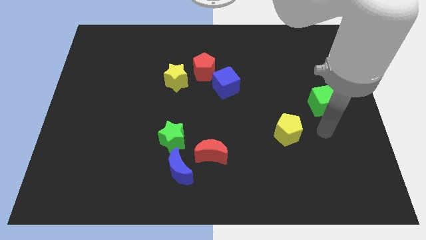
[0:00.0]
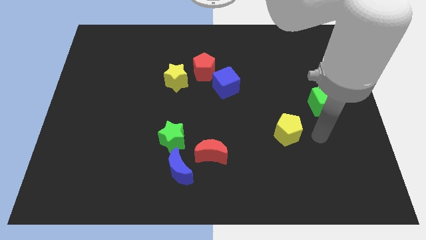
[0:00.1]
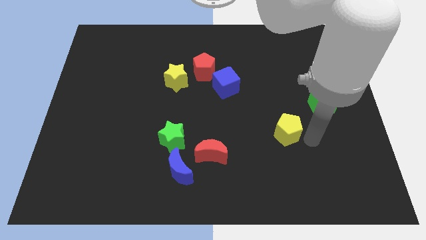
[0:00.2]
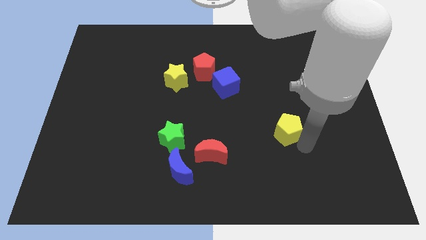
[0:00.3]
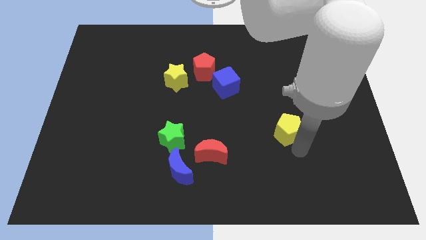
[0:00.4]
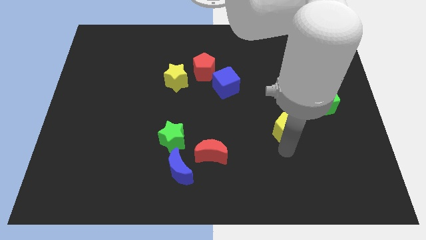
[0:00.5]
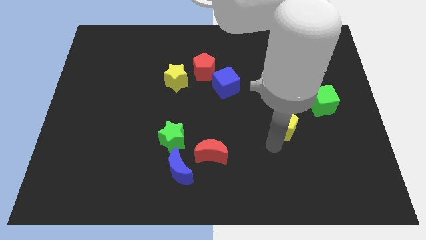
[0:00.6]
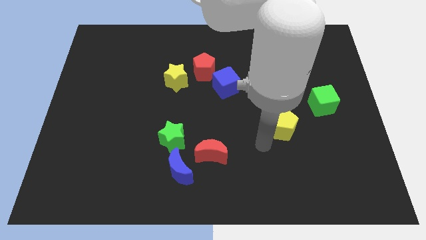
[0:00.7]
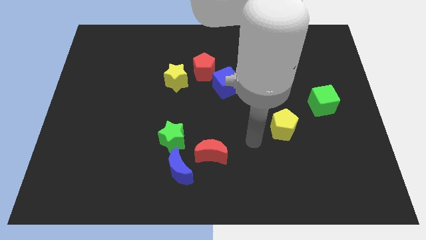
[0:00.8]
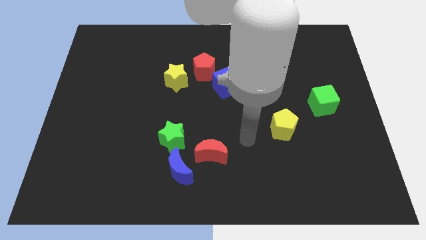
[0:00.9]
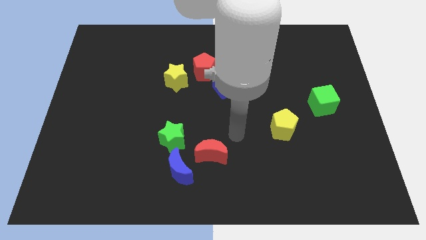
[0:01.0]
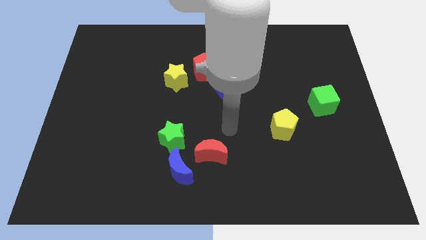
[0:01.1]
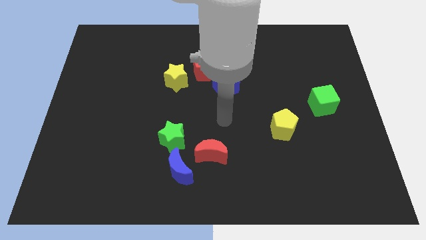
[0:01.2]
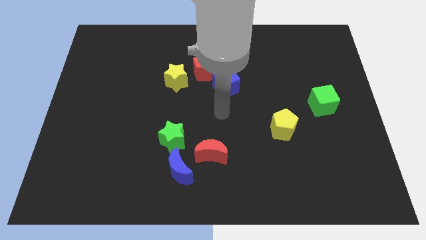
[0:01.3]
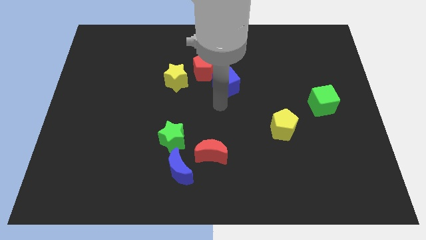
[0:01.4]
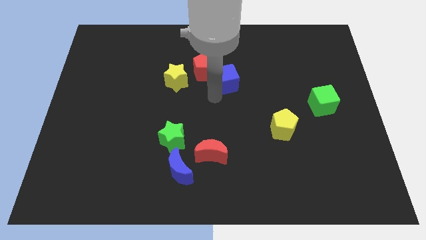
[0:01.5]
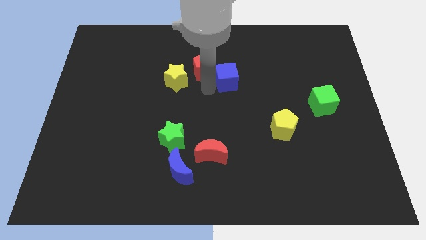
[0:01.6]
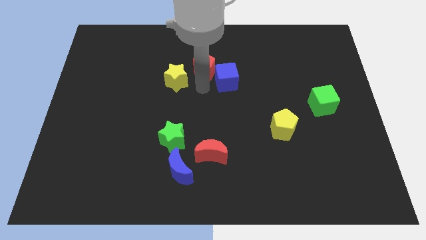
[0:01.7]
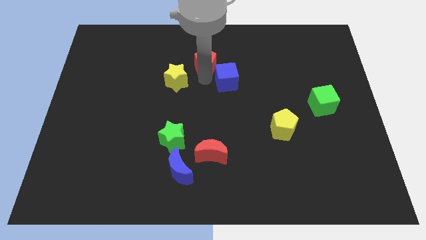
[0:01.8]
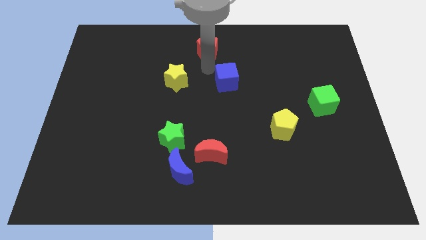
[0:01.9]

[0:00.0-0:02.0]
move the blue cube away from the red pentagon

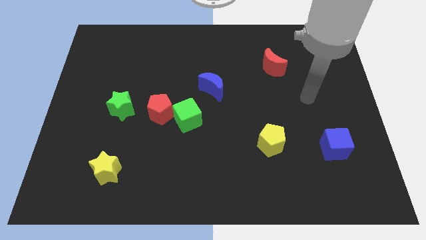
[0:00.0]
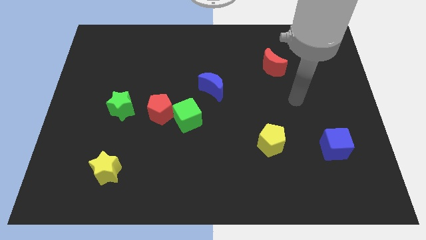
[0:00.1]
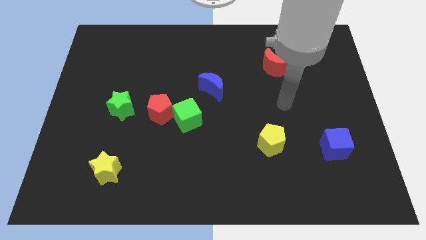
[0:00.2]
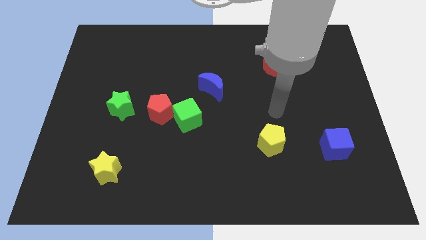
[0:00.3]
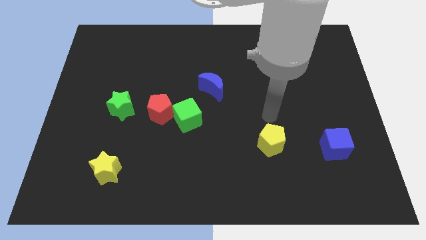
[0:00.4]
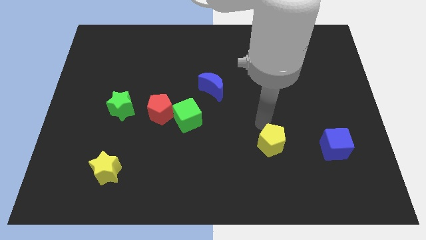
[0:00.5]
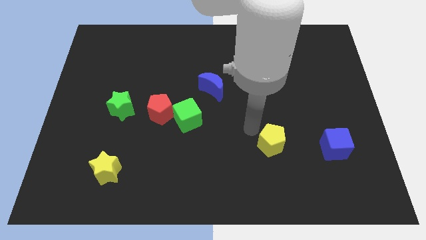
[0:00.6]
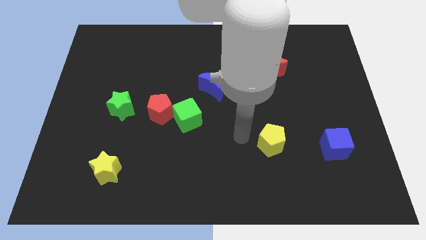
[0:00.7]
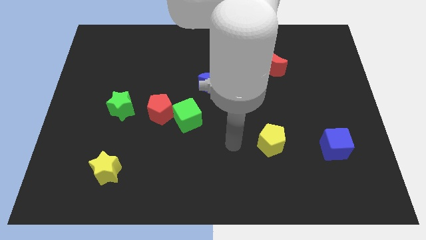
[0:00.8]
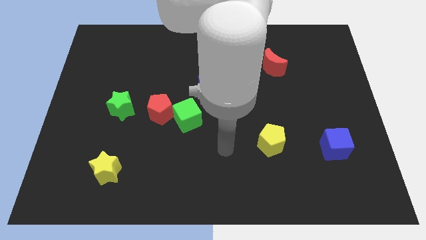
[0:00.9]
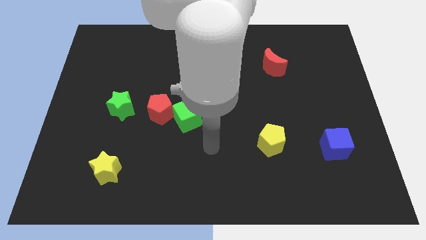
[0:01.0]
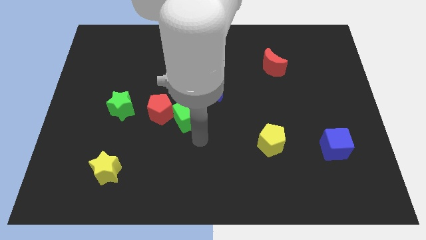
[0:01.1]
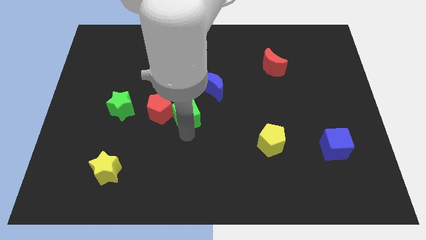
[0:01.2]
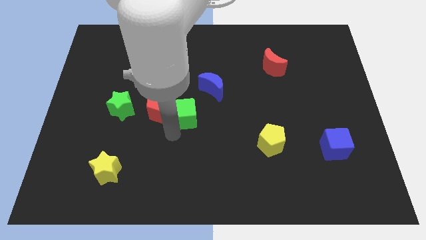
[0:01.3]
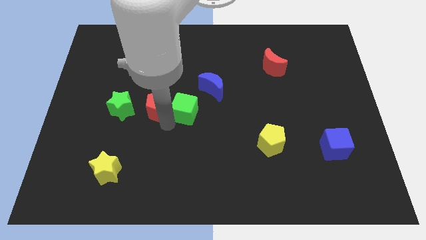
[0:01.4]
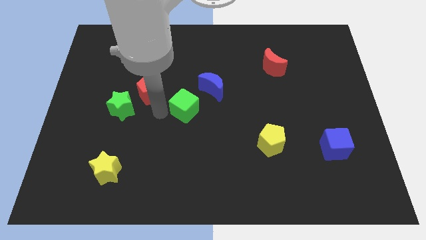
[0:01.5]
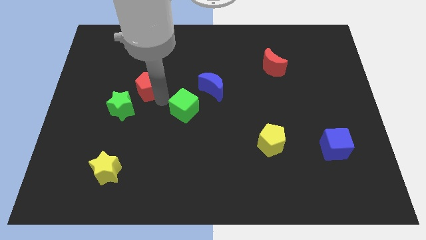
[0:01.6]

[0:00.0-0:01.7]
move the green cube away from the red pentagon

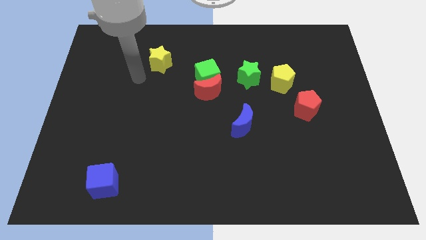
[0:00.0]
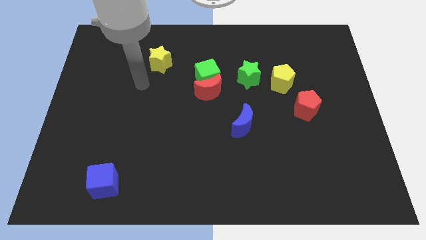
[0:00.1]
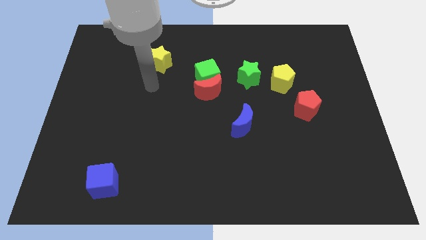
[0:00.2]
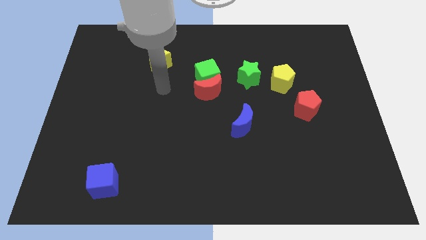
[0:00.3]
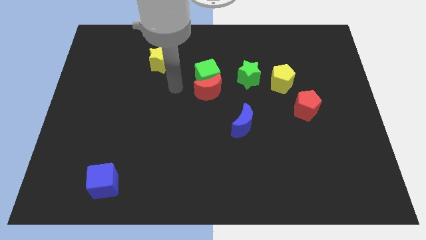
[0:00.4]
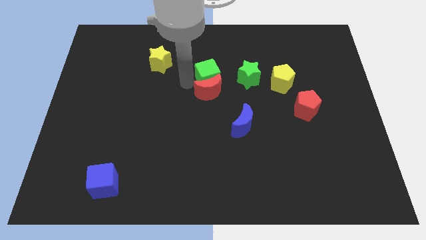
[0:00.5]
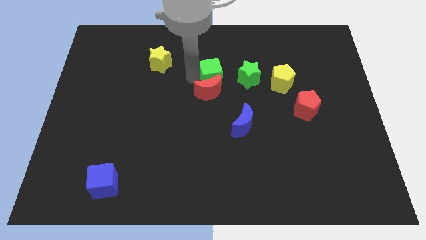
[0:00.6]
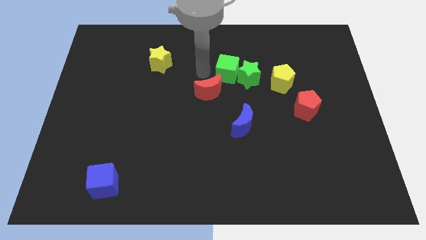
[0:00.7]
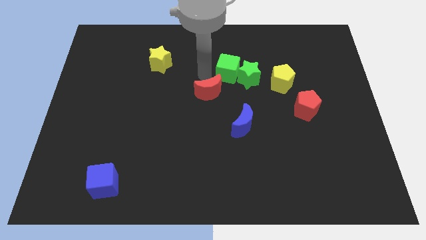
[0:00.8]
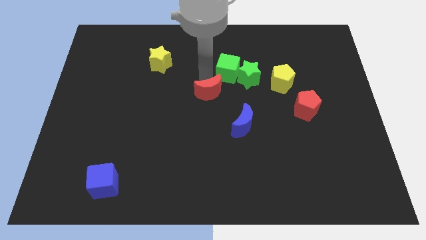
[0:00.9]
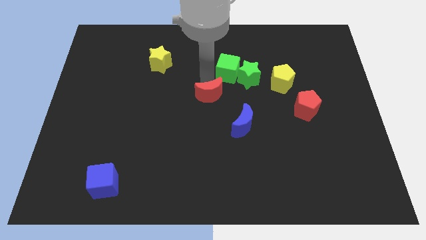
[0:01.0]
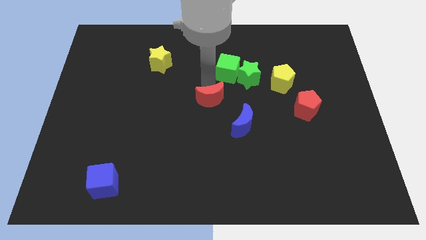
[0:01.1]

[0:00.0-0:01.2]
move the red moon away from the green cube

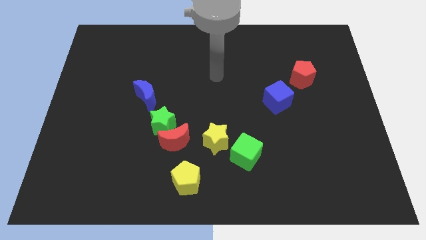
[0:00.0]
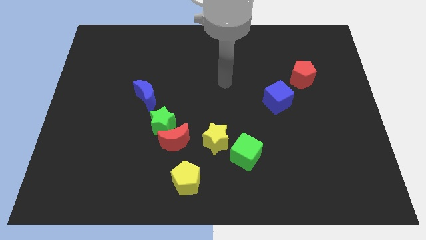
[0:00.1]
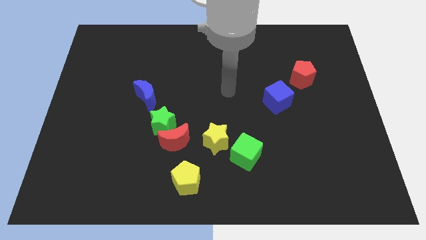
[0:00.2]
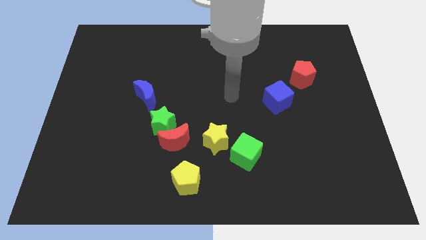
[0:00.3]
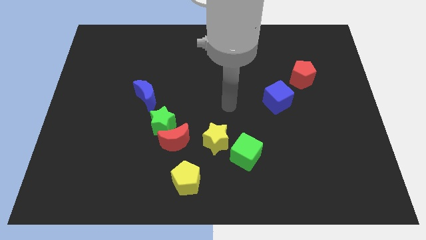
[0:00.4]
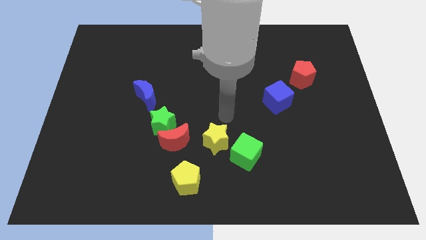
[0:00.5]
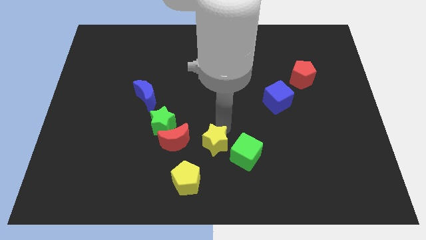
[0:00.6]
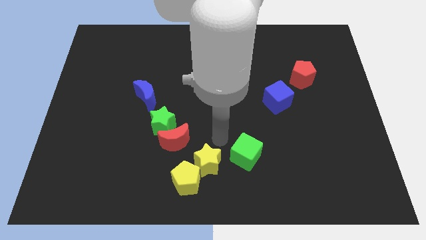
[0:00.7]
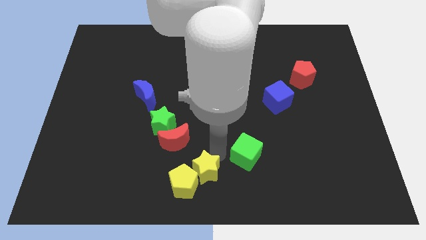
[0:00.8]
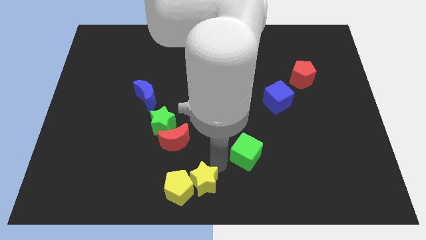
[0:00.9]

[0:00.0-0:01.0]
pull the green cube apart from the yellow star

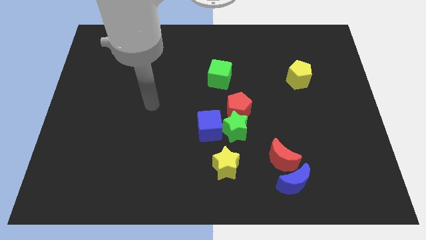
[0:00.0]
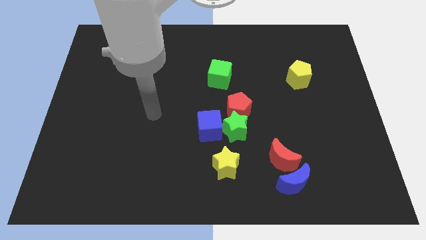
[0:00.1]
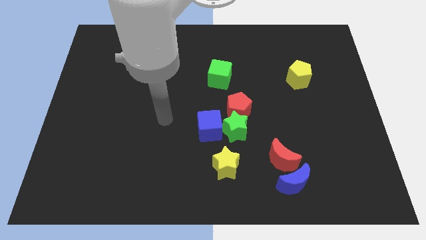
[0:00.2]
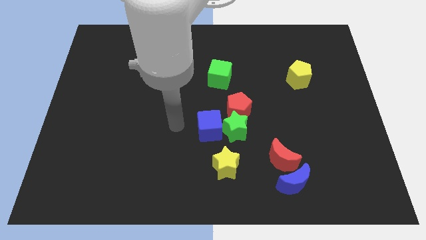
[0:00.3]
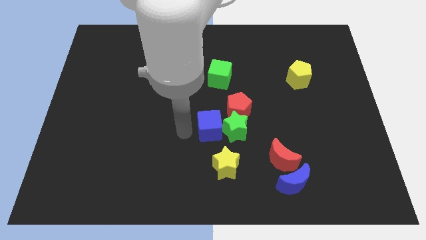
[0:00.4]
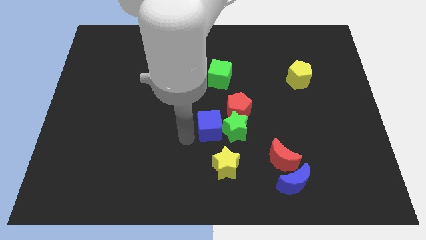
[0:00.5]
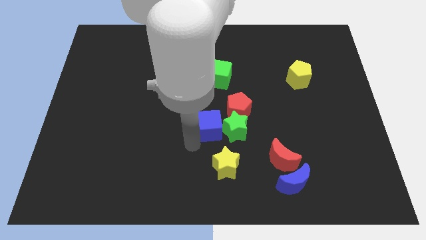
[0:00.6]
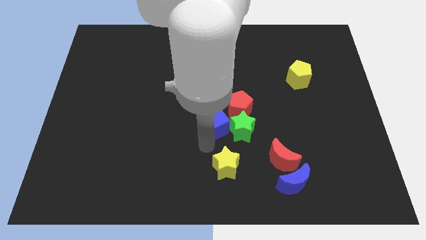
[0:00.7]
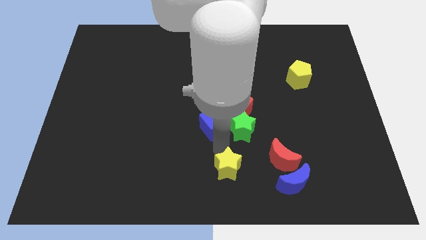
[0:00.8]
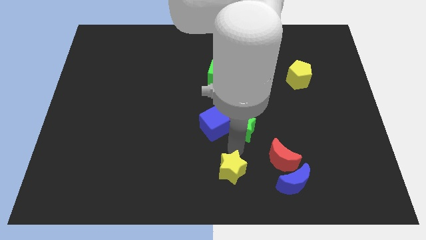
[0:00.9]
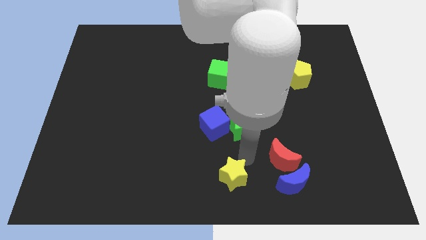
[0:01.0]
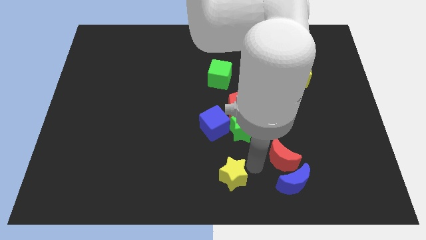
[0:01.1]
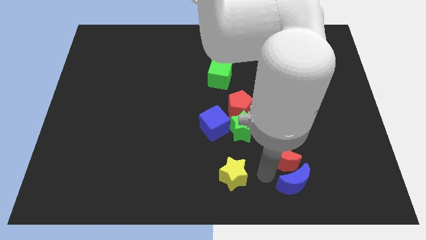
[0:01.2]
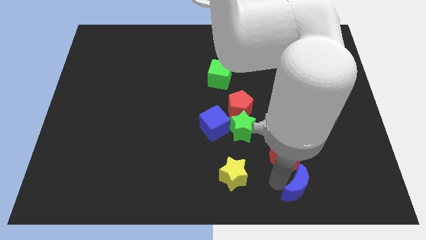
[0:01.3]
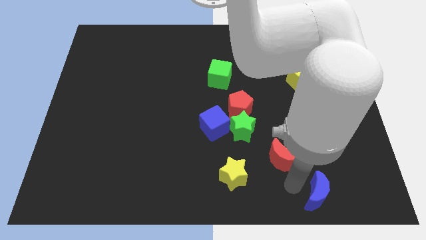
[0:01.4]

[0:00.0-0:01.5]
move the red moon away from the blue moon

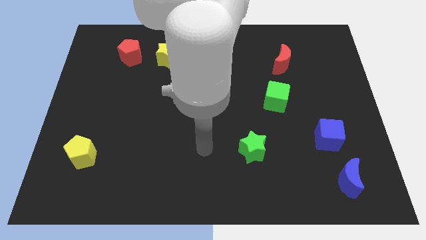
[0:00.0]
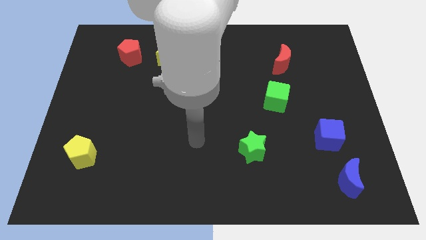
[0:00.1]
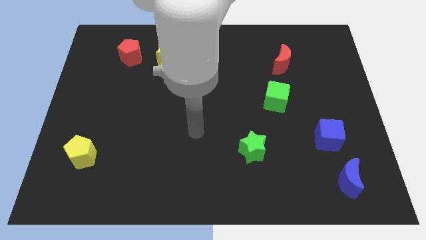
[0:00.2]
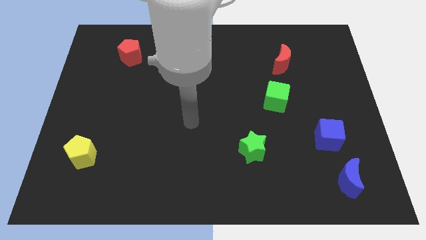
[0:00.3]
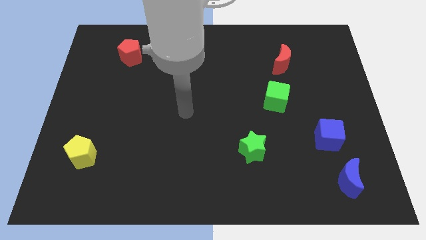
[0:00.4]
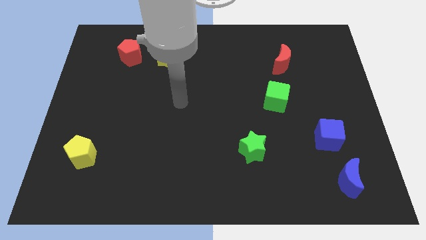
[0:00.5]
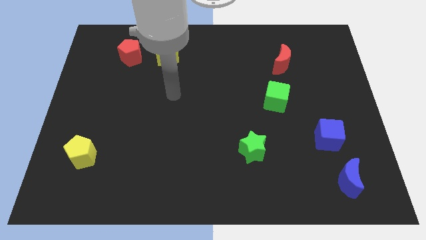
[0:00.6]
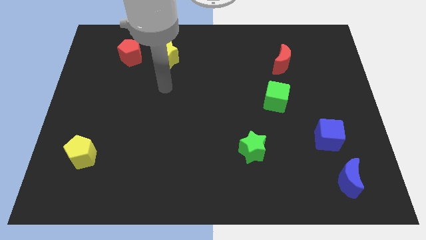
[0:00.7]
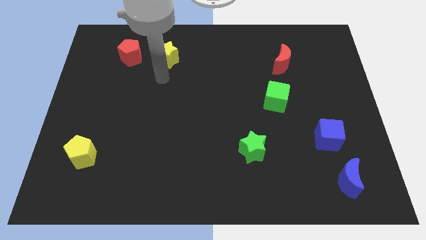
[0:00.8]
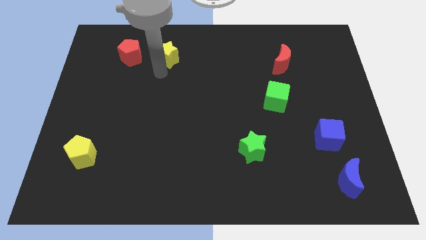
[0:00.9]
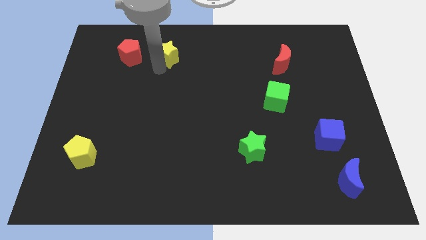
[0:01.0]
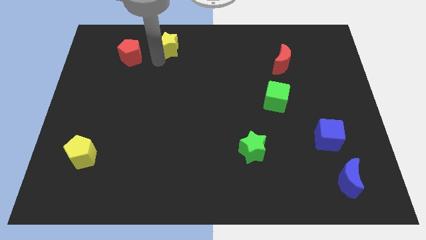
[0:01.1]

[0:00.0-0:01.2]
separate the red pentagon from the yellow star

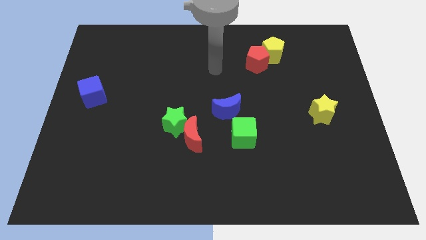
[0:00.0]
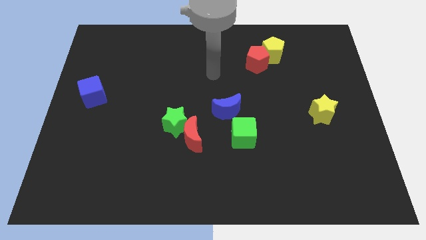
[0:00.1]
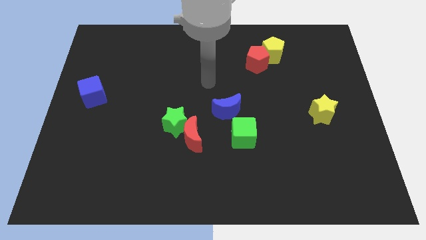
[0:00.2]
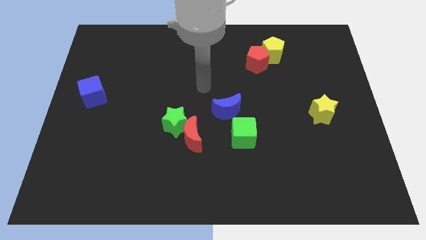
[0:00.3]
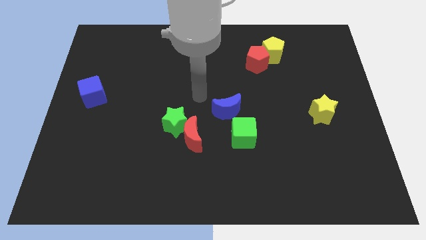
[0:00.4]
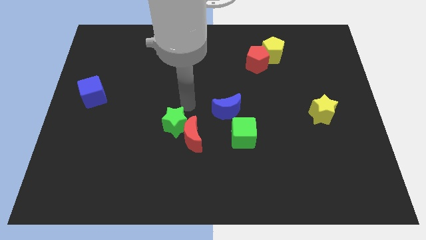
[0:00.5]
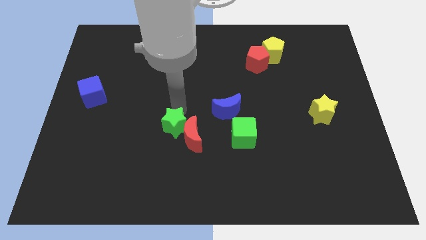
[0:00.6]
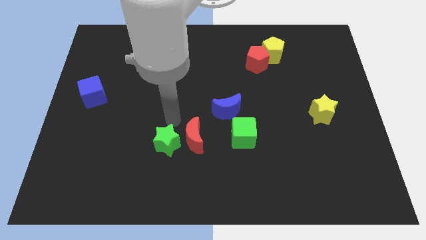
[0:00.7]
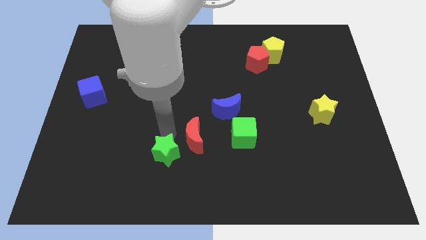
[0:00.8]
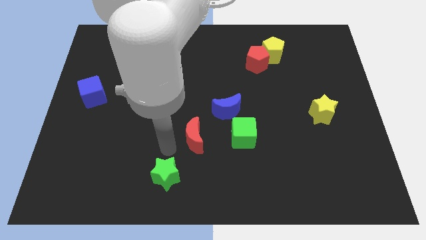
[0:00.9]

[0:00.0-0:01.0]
move the red moon away from the green star
